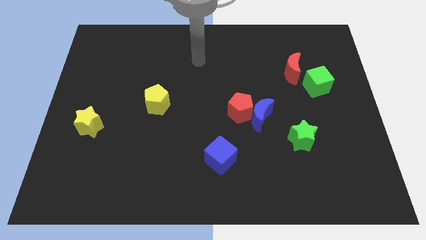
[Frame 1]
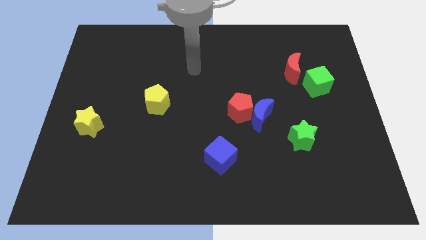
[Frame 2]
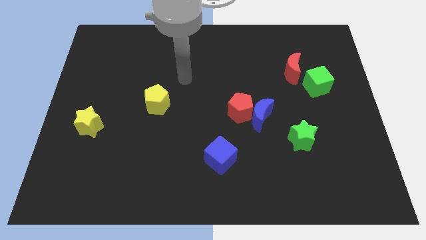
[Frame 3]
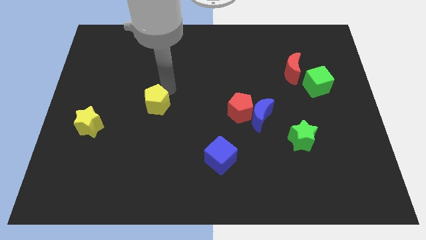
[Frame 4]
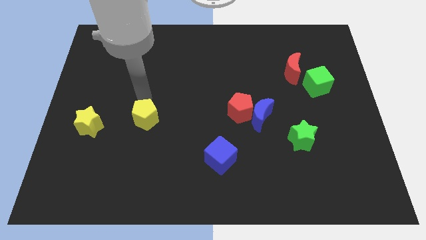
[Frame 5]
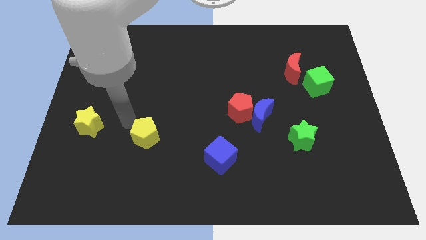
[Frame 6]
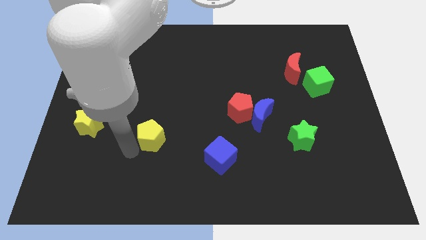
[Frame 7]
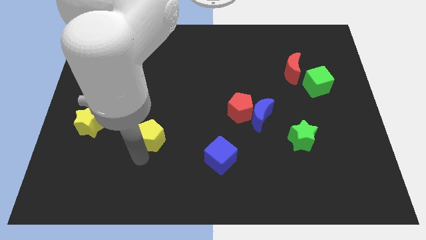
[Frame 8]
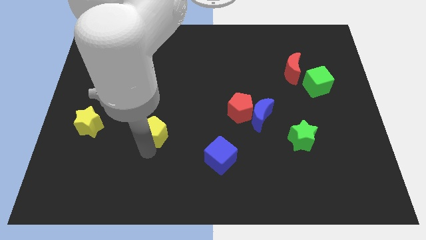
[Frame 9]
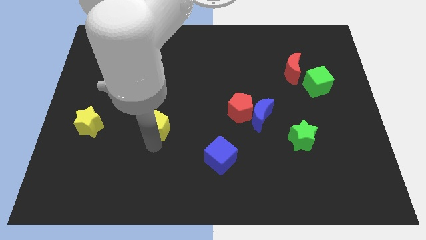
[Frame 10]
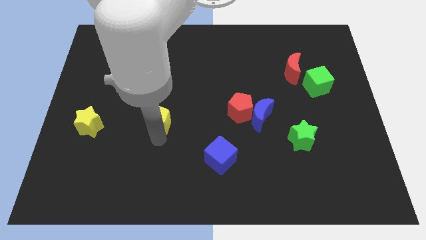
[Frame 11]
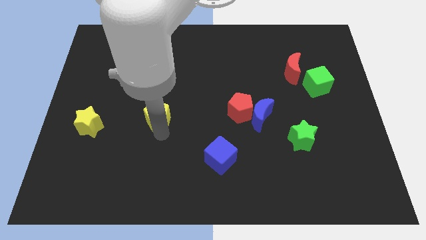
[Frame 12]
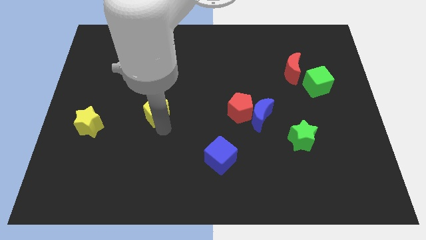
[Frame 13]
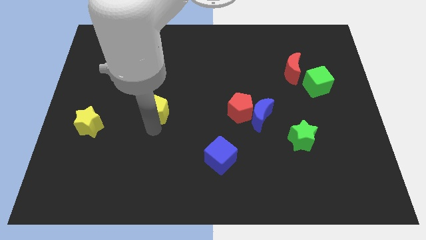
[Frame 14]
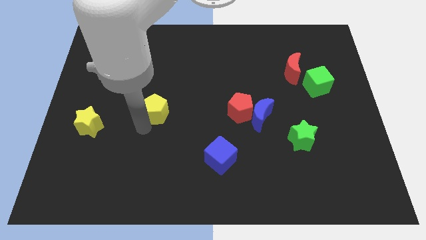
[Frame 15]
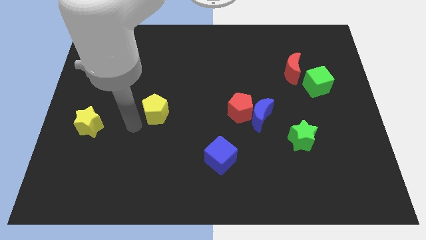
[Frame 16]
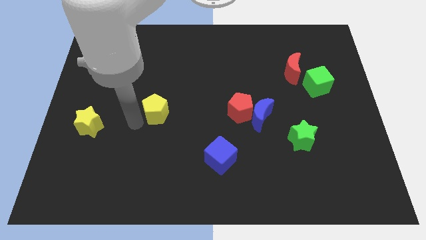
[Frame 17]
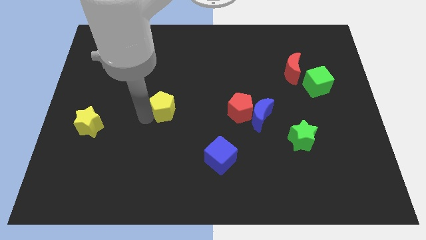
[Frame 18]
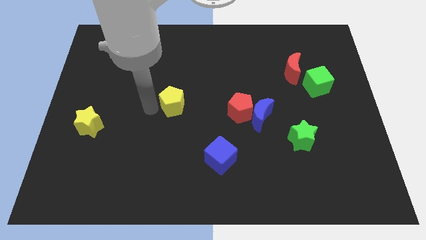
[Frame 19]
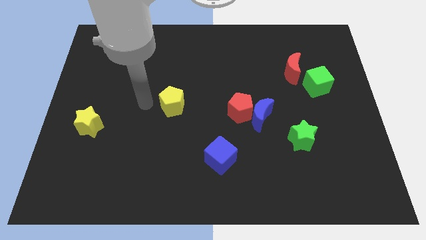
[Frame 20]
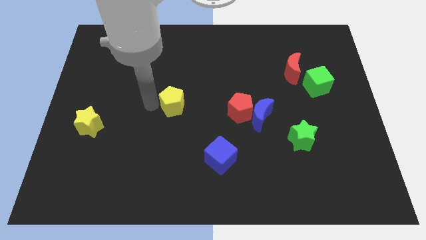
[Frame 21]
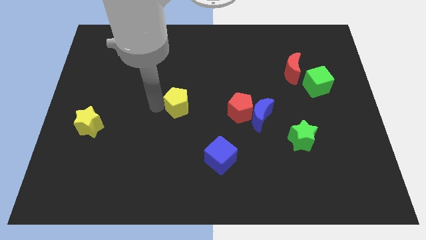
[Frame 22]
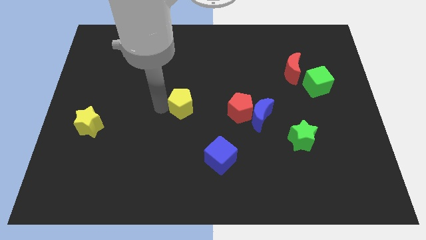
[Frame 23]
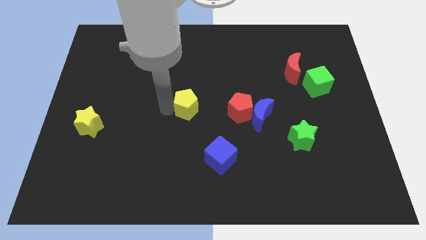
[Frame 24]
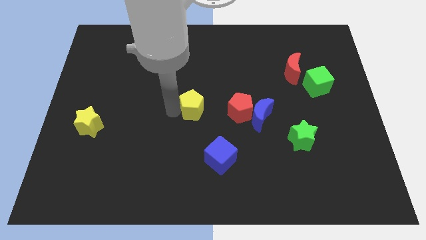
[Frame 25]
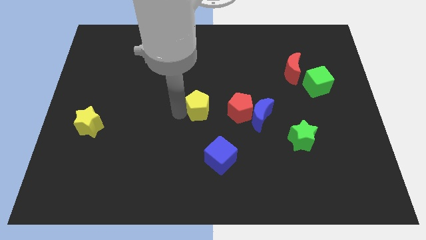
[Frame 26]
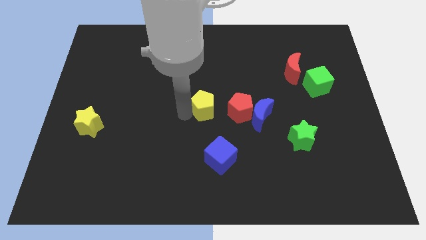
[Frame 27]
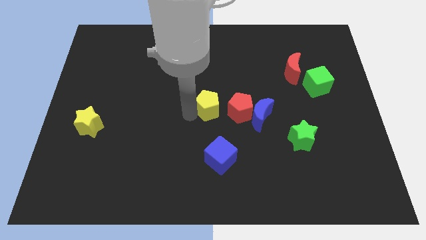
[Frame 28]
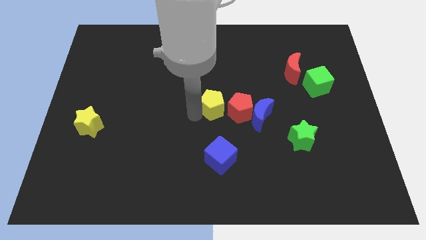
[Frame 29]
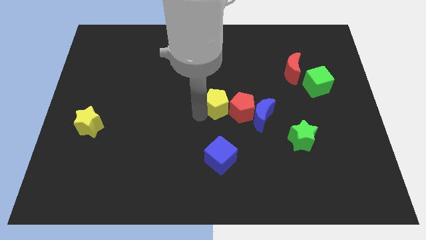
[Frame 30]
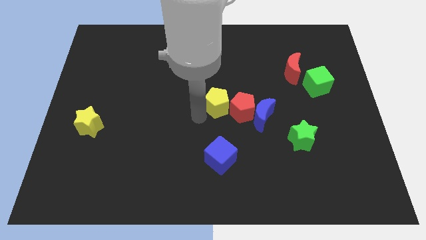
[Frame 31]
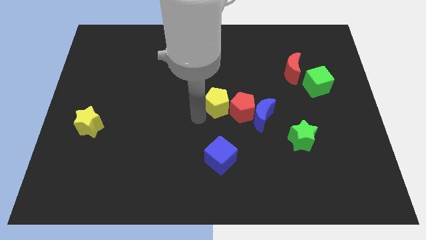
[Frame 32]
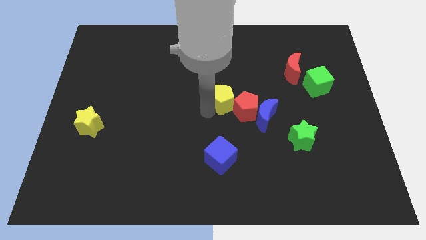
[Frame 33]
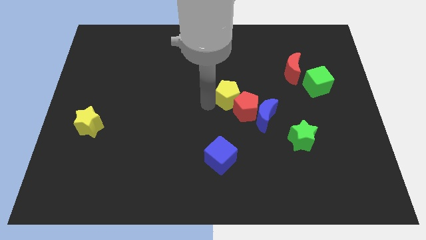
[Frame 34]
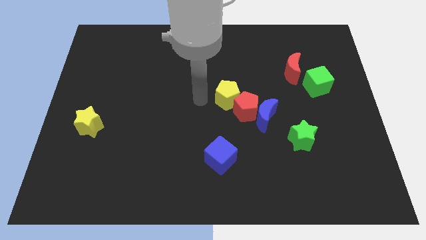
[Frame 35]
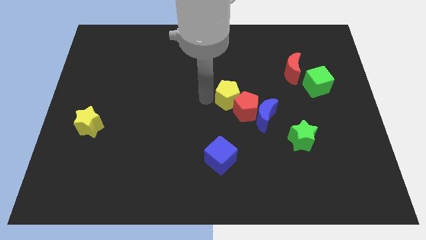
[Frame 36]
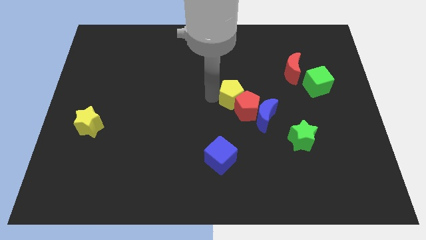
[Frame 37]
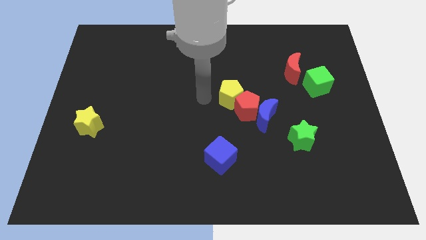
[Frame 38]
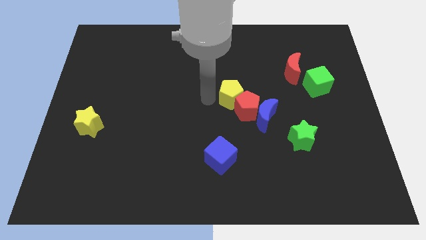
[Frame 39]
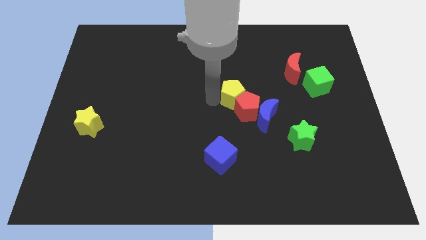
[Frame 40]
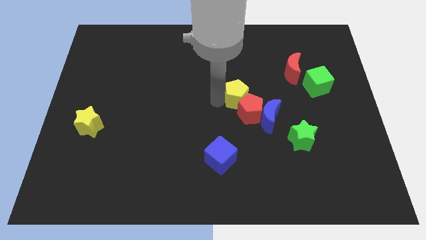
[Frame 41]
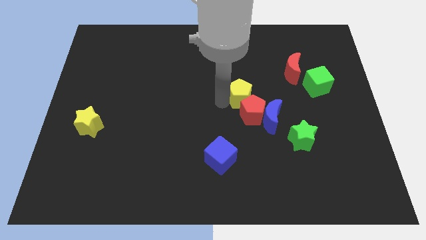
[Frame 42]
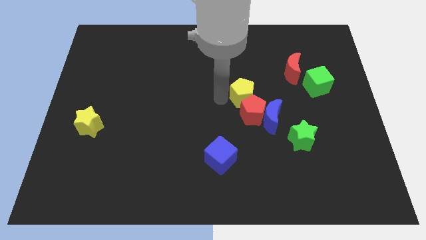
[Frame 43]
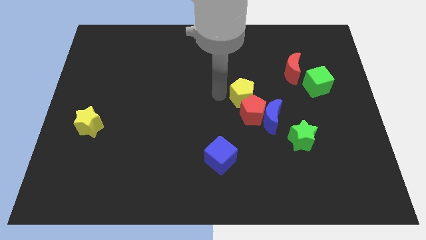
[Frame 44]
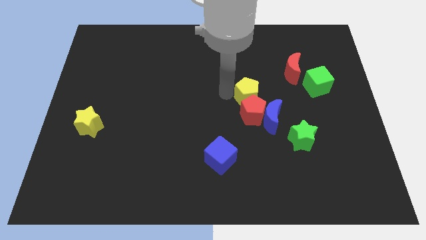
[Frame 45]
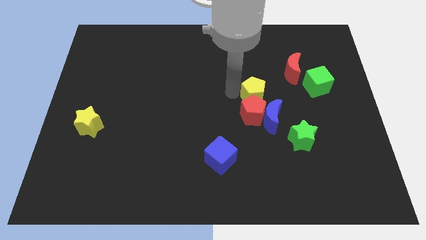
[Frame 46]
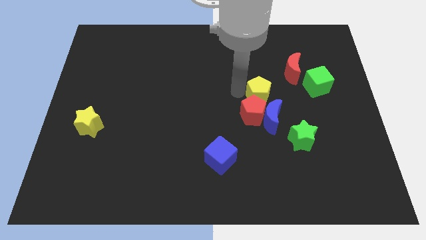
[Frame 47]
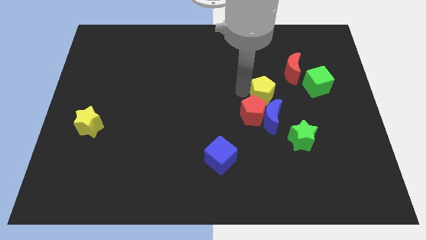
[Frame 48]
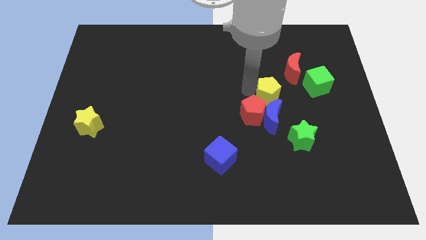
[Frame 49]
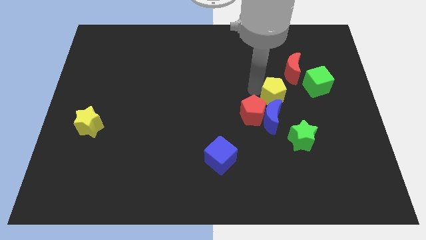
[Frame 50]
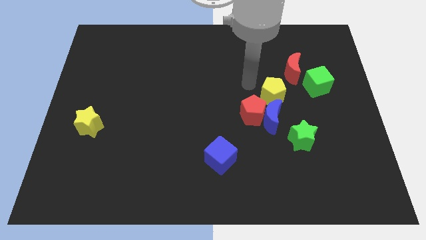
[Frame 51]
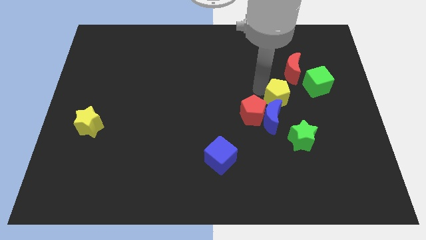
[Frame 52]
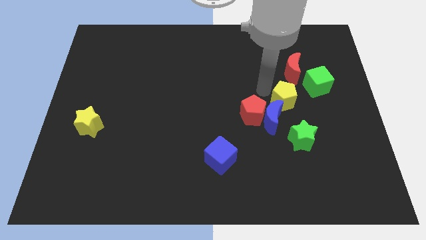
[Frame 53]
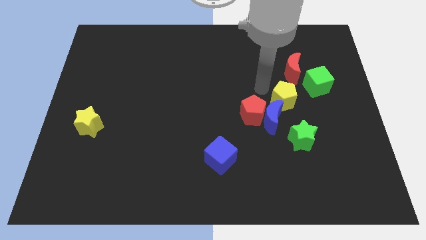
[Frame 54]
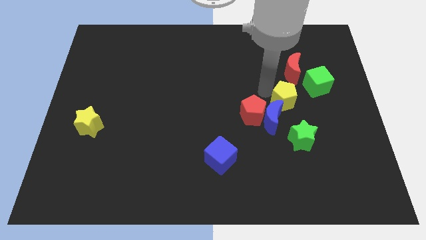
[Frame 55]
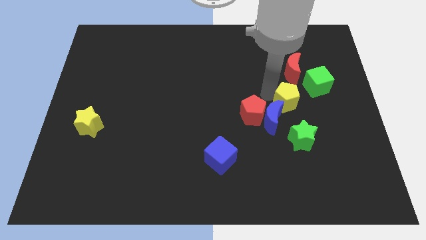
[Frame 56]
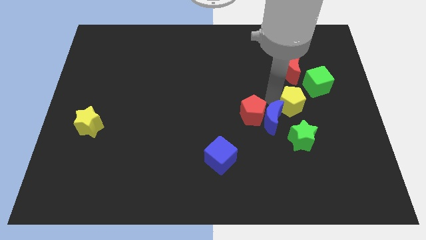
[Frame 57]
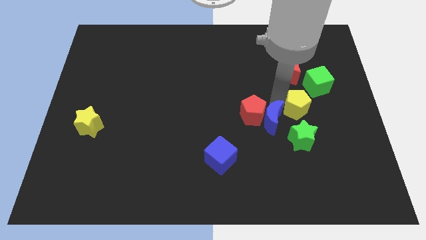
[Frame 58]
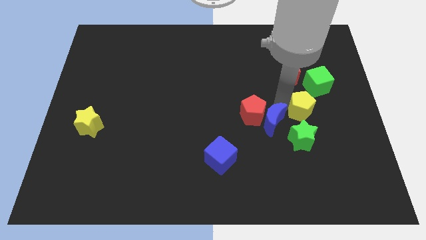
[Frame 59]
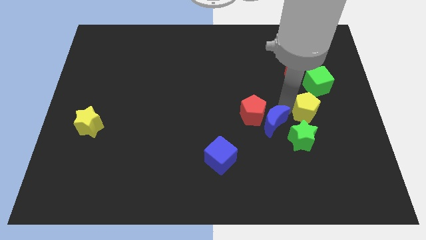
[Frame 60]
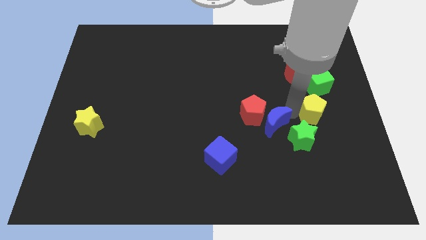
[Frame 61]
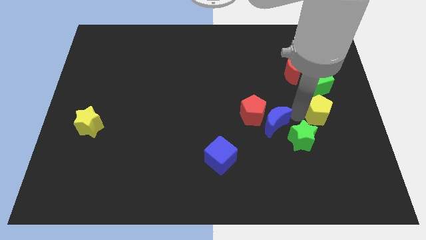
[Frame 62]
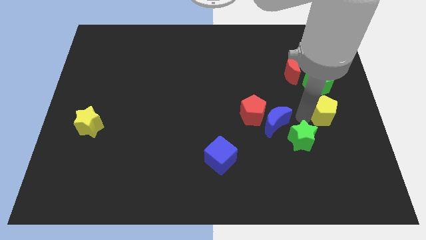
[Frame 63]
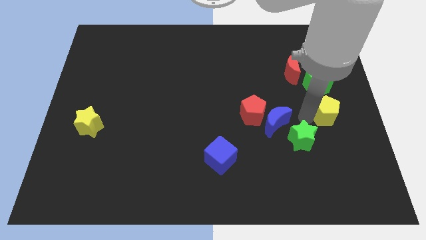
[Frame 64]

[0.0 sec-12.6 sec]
move the yellow pentagon to the center right
